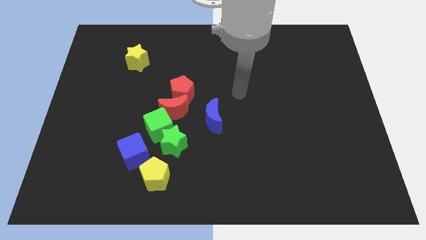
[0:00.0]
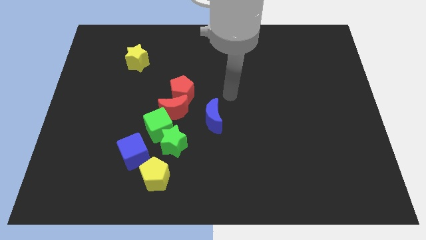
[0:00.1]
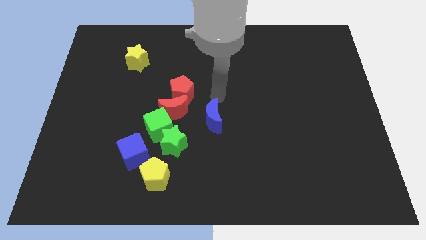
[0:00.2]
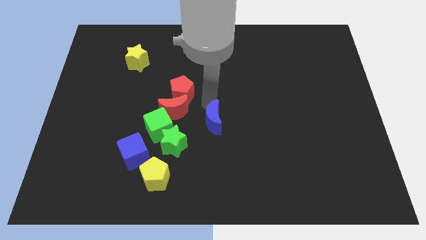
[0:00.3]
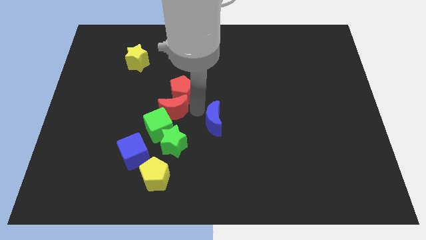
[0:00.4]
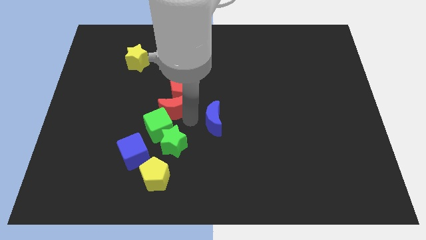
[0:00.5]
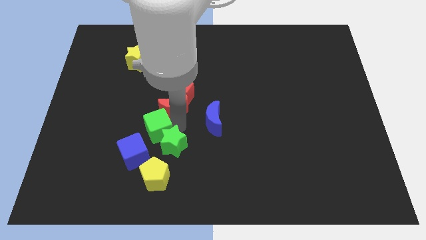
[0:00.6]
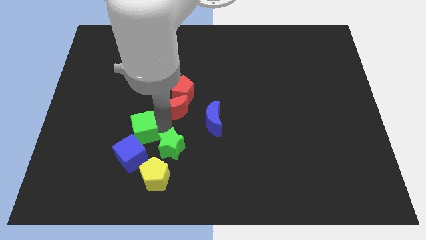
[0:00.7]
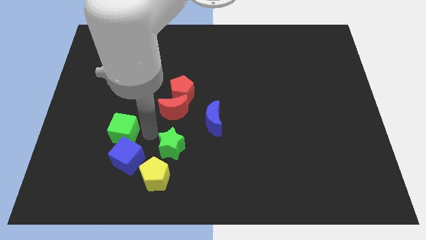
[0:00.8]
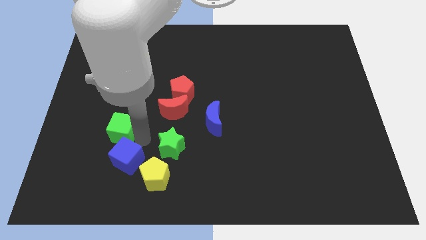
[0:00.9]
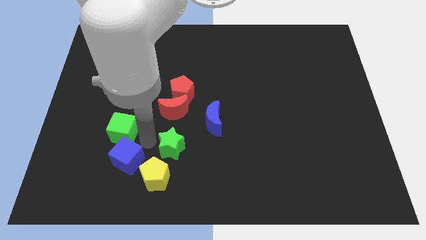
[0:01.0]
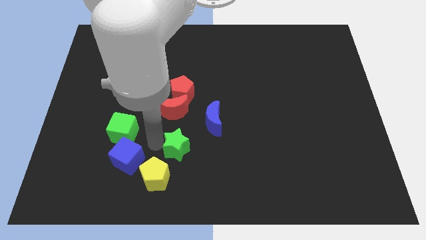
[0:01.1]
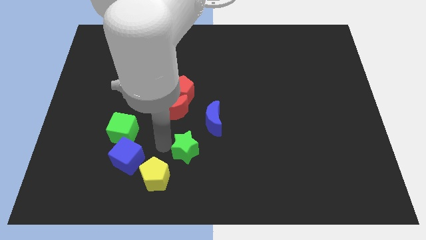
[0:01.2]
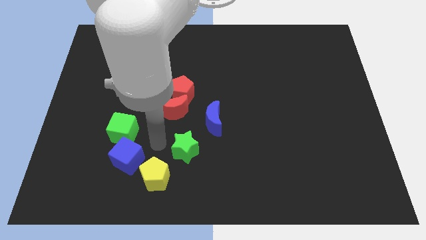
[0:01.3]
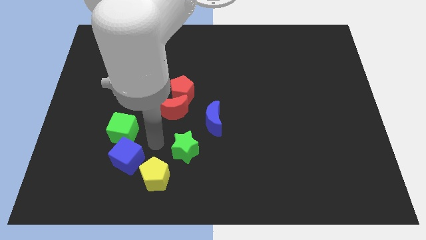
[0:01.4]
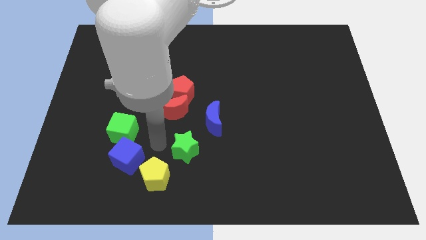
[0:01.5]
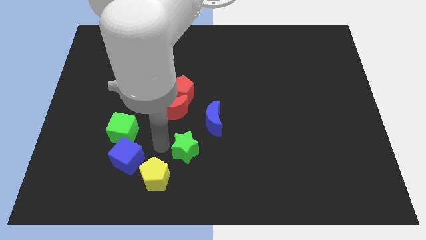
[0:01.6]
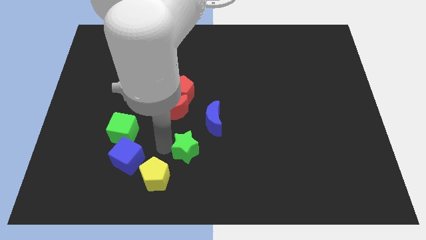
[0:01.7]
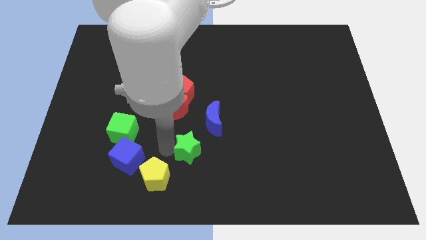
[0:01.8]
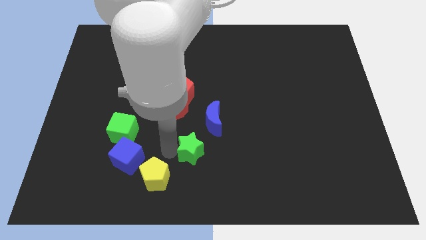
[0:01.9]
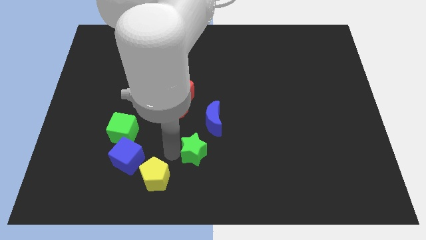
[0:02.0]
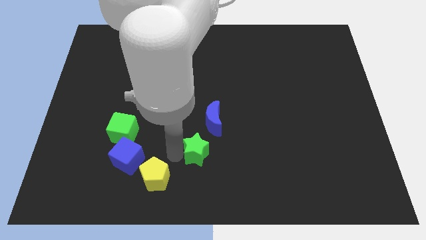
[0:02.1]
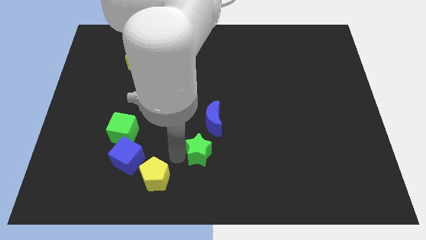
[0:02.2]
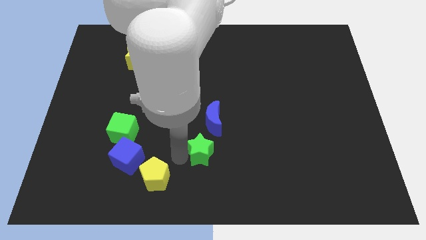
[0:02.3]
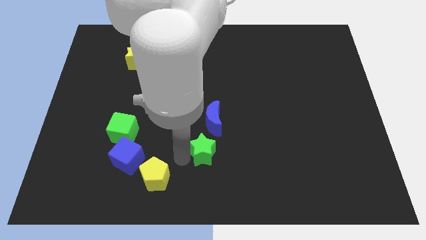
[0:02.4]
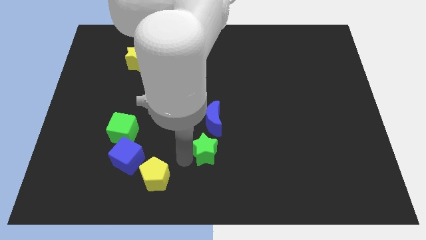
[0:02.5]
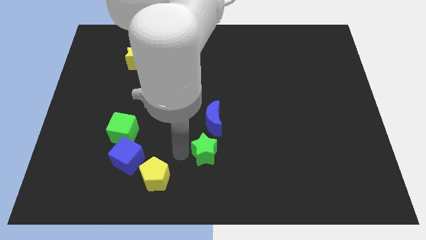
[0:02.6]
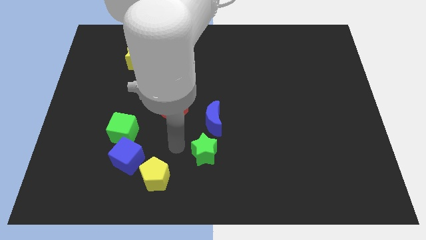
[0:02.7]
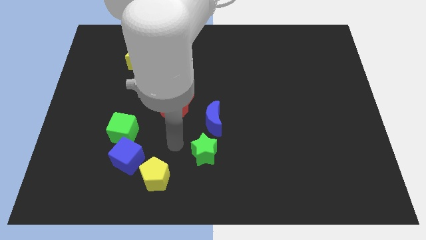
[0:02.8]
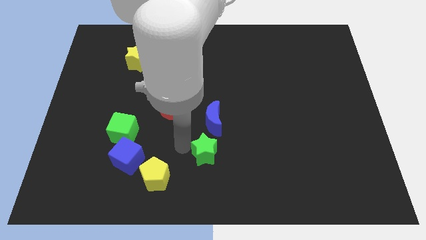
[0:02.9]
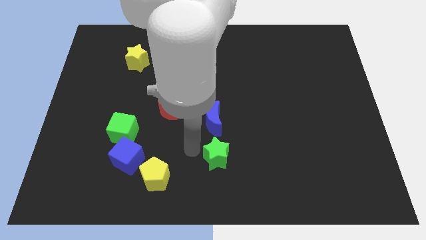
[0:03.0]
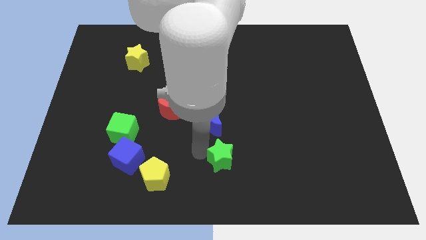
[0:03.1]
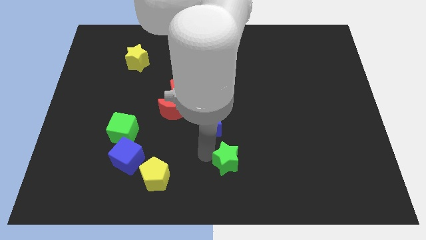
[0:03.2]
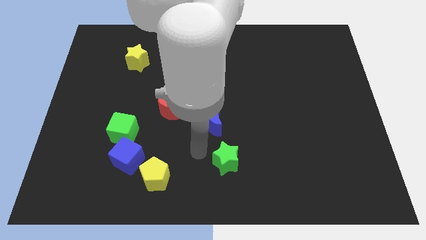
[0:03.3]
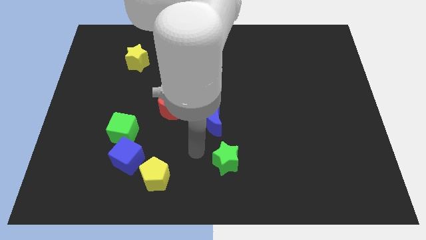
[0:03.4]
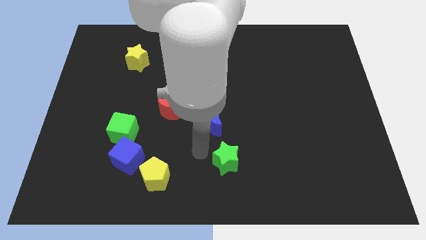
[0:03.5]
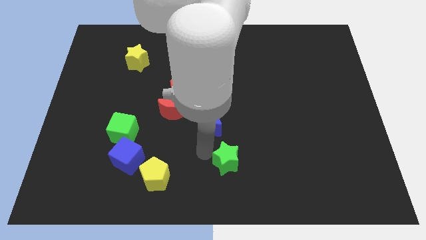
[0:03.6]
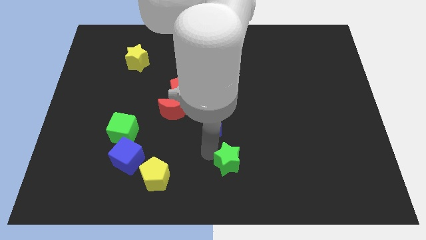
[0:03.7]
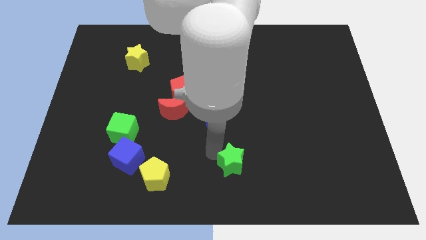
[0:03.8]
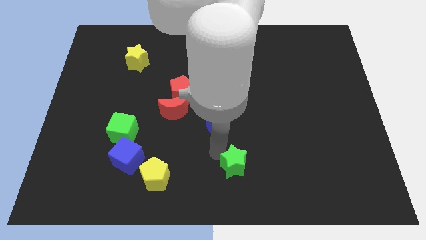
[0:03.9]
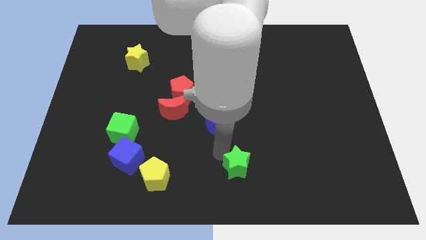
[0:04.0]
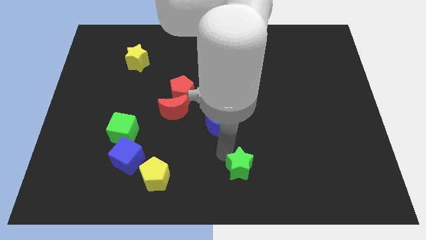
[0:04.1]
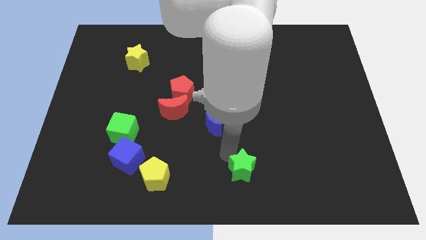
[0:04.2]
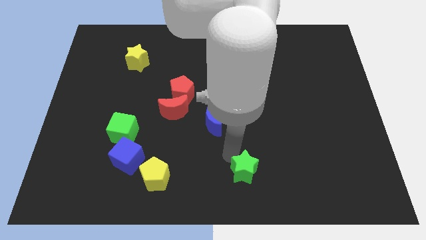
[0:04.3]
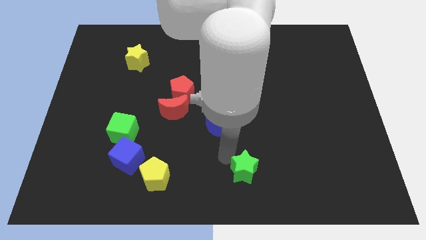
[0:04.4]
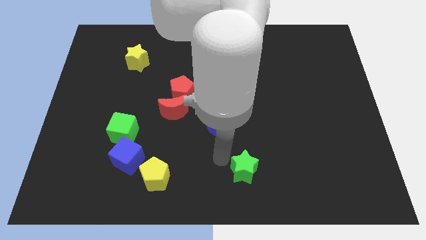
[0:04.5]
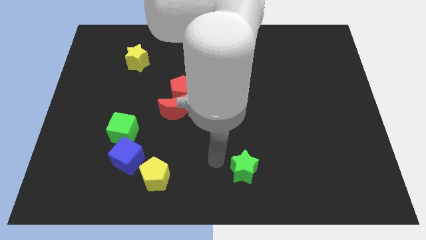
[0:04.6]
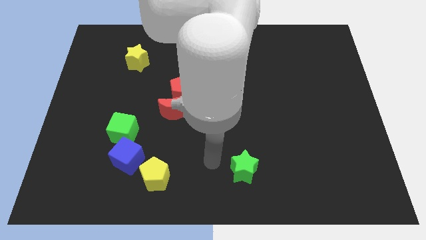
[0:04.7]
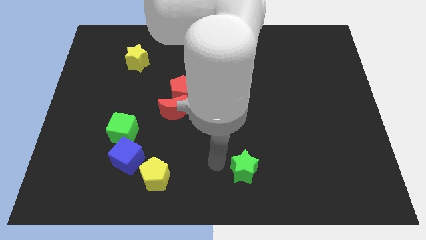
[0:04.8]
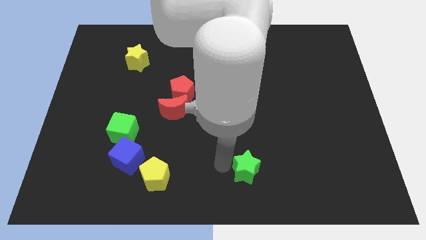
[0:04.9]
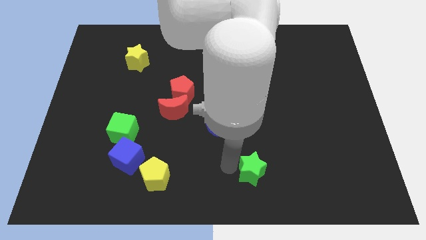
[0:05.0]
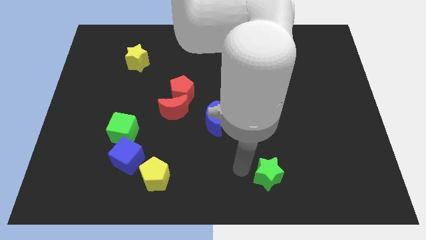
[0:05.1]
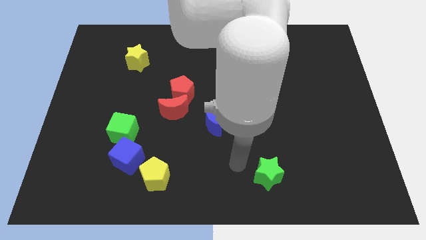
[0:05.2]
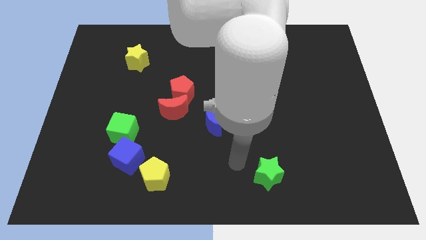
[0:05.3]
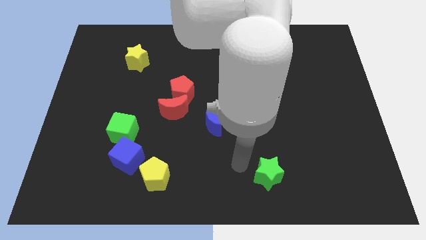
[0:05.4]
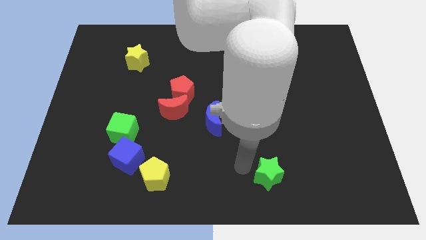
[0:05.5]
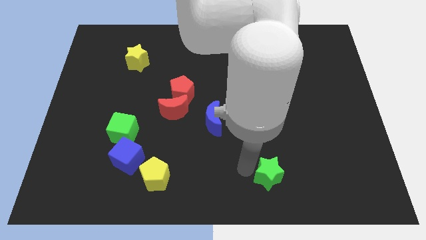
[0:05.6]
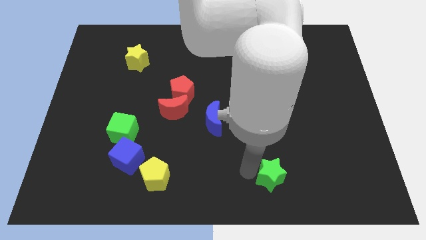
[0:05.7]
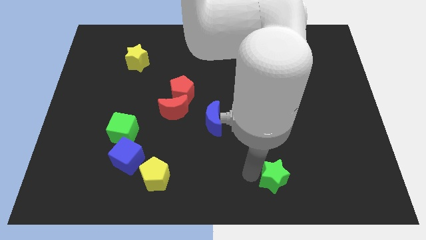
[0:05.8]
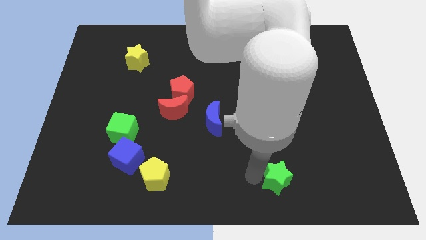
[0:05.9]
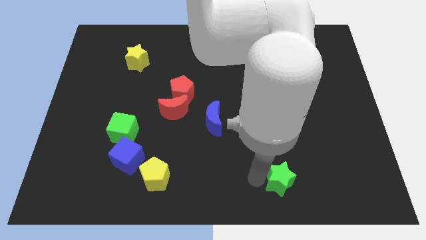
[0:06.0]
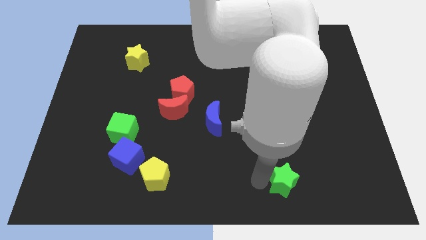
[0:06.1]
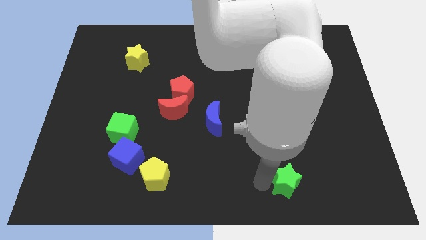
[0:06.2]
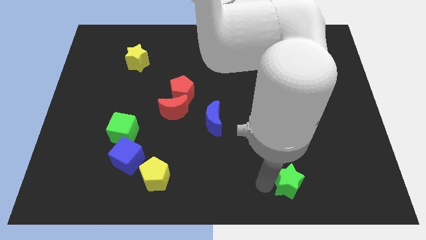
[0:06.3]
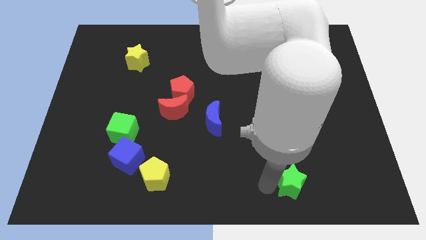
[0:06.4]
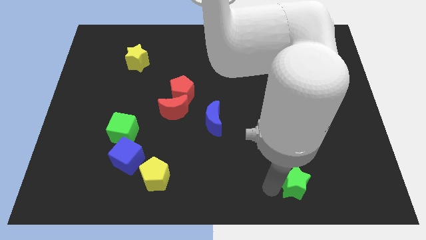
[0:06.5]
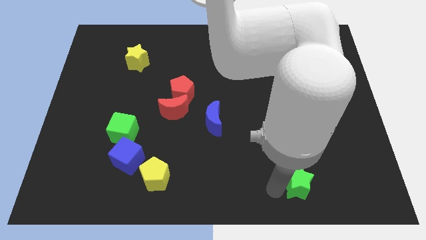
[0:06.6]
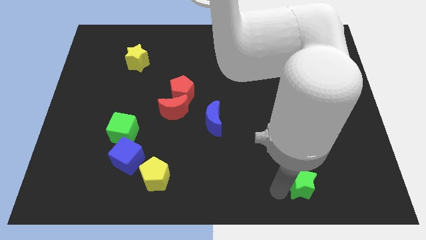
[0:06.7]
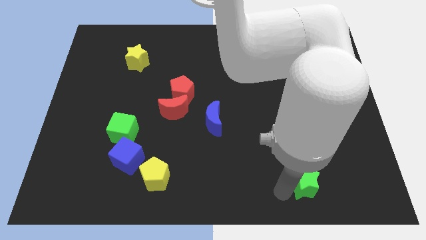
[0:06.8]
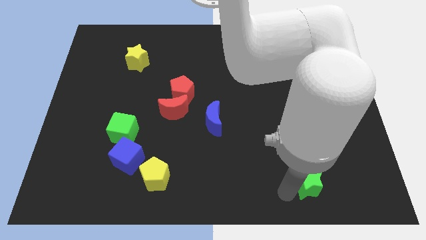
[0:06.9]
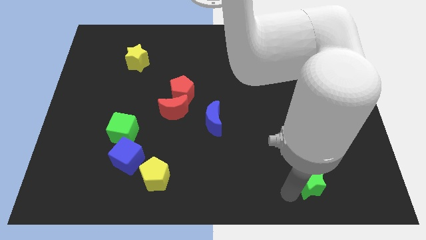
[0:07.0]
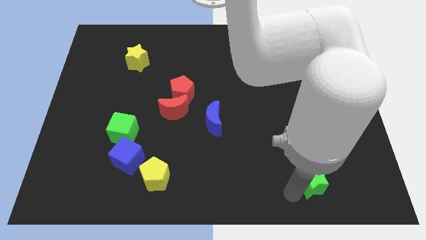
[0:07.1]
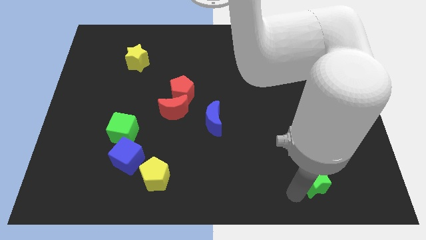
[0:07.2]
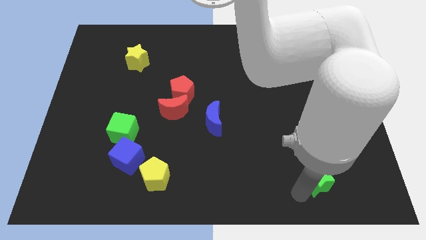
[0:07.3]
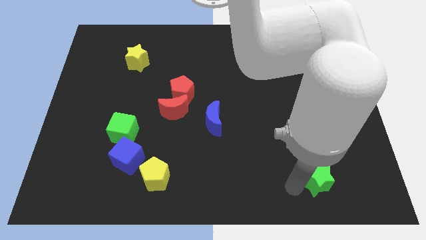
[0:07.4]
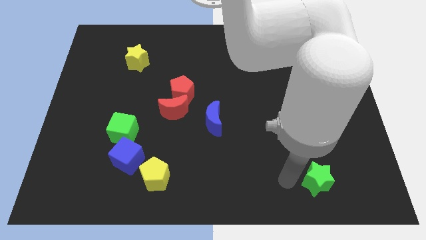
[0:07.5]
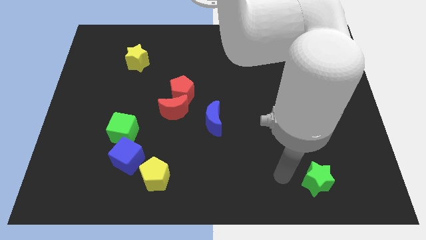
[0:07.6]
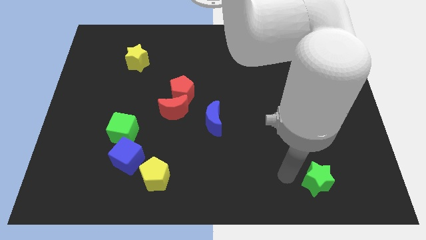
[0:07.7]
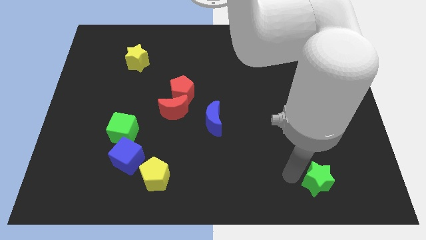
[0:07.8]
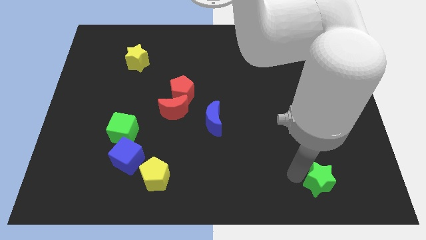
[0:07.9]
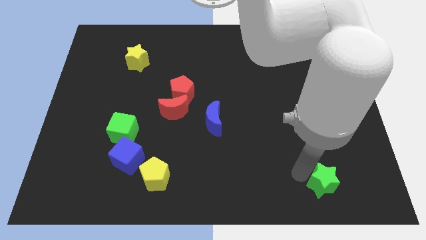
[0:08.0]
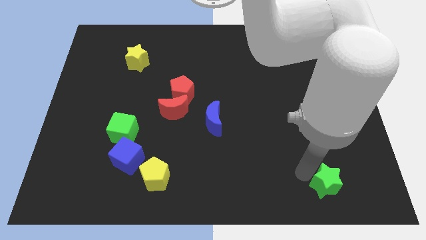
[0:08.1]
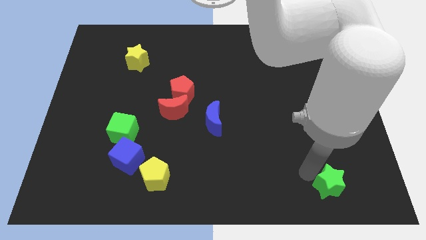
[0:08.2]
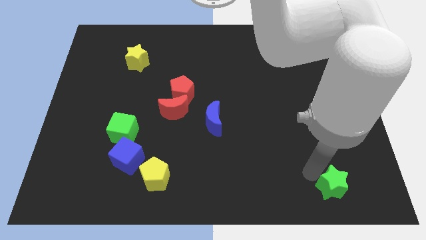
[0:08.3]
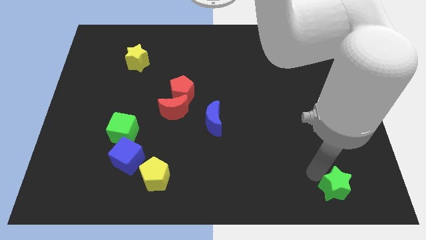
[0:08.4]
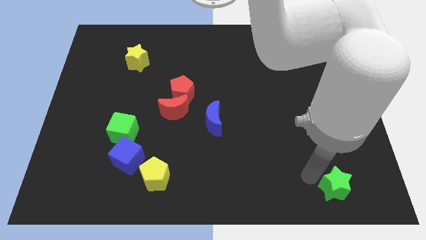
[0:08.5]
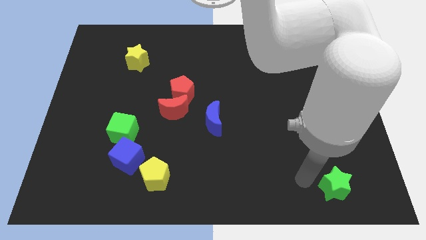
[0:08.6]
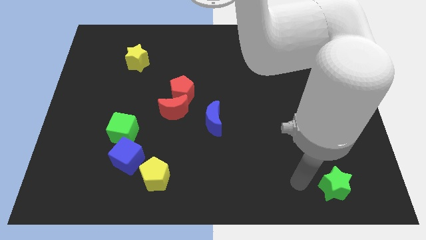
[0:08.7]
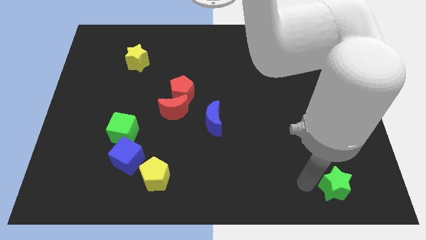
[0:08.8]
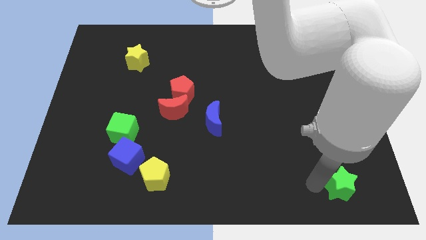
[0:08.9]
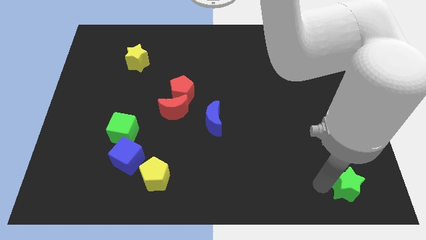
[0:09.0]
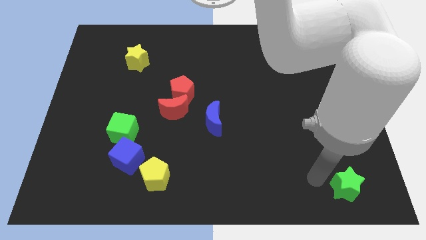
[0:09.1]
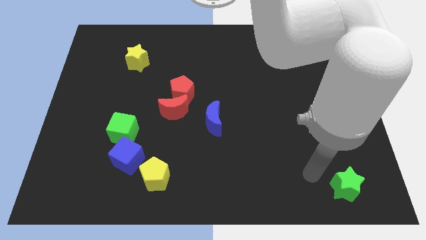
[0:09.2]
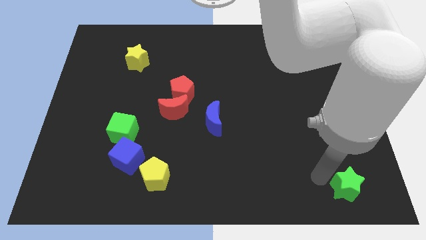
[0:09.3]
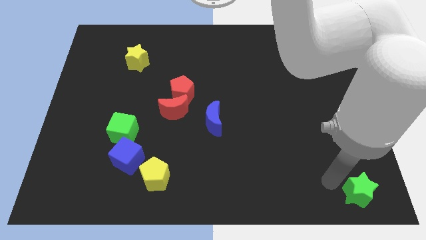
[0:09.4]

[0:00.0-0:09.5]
put the green star to the bottom right
